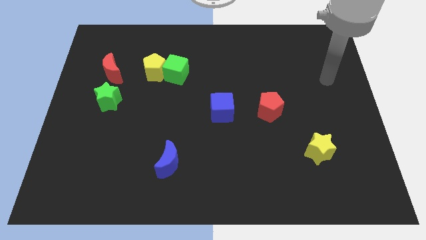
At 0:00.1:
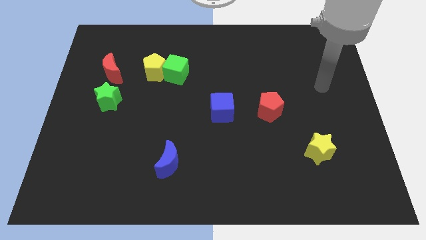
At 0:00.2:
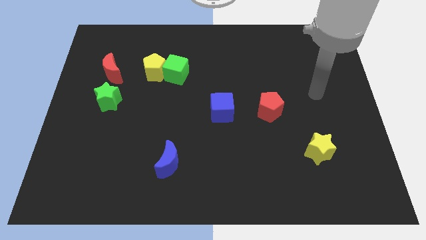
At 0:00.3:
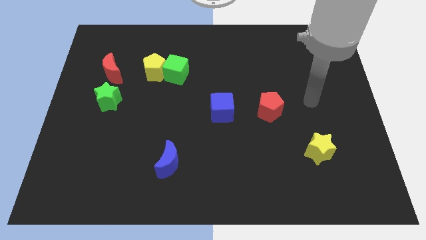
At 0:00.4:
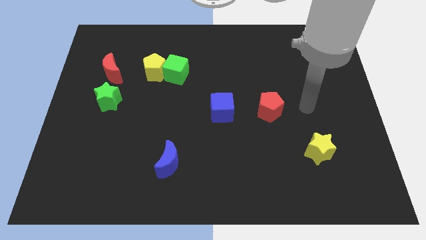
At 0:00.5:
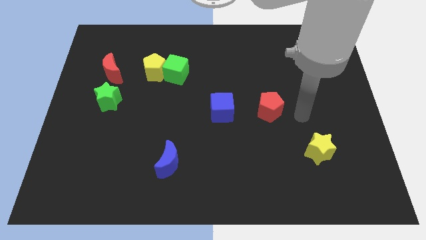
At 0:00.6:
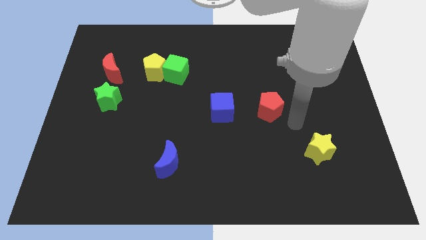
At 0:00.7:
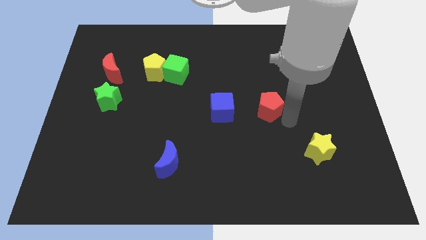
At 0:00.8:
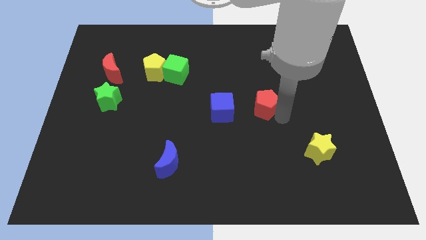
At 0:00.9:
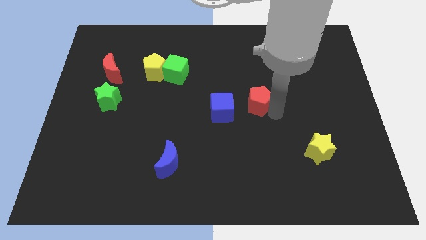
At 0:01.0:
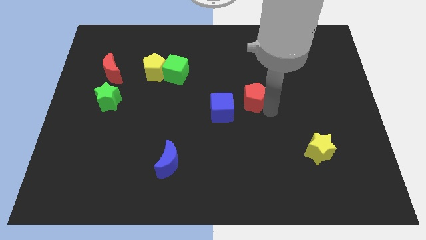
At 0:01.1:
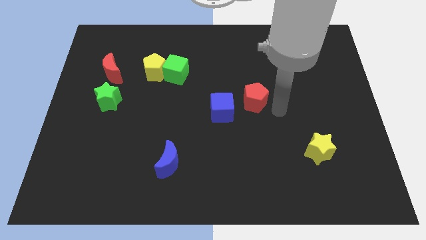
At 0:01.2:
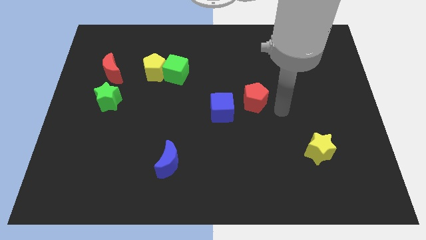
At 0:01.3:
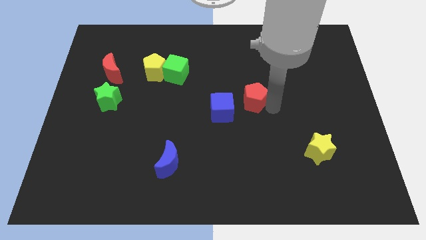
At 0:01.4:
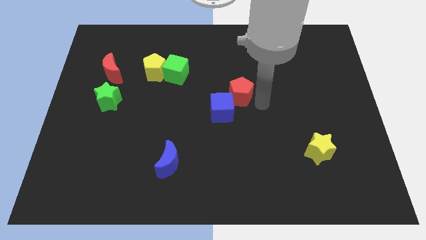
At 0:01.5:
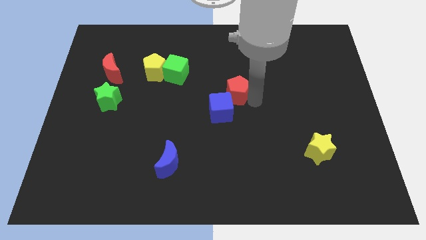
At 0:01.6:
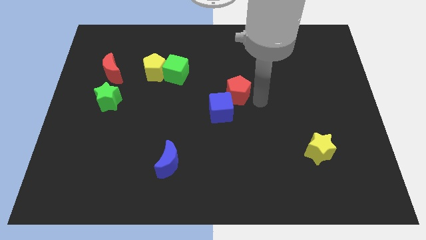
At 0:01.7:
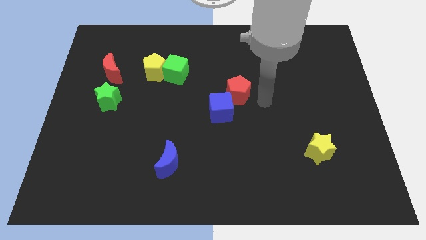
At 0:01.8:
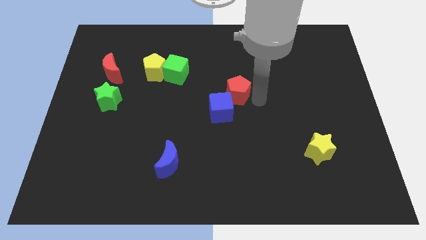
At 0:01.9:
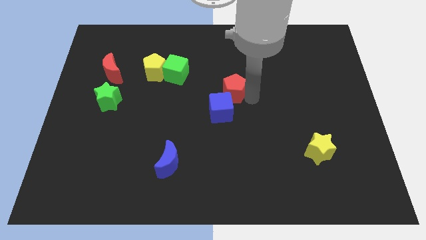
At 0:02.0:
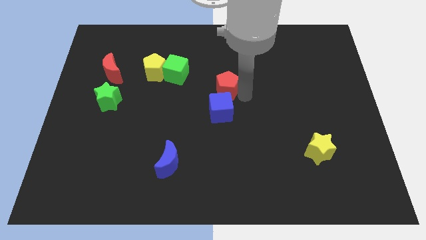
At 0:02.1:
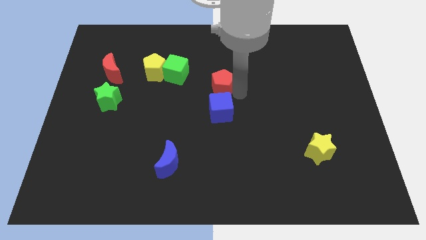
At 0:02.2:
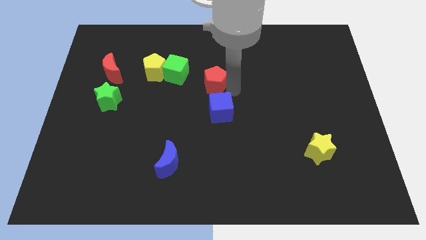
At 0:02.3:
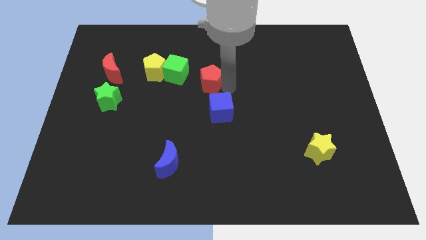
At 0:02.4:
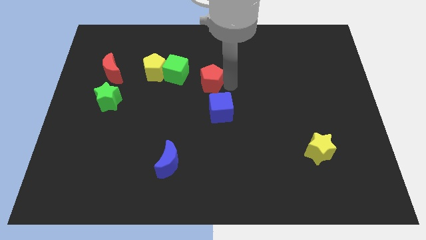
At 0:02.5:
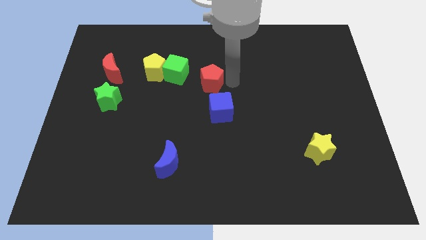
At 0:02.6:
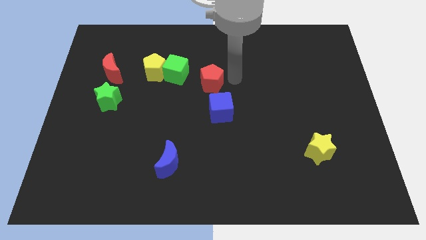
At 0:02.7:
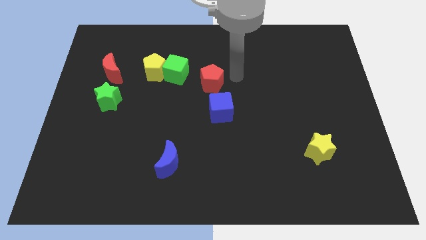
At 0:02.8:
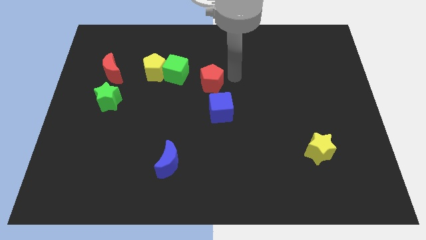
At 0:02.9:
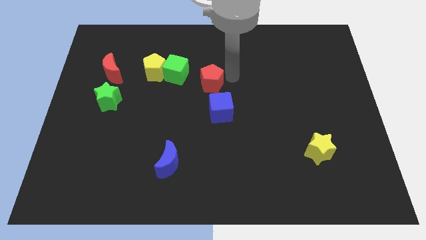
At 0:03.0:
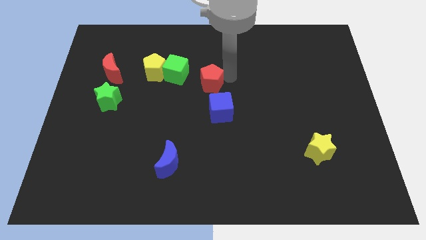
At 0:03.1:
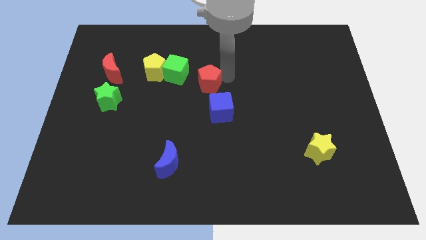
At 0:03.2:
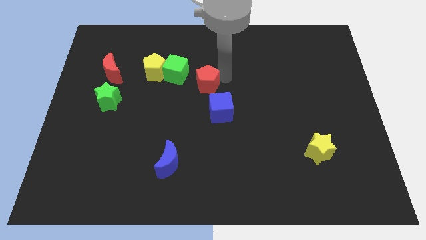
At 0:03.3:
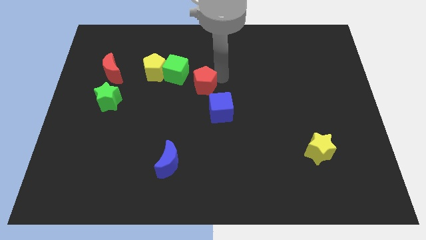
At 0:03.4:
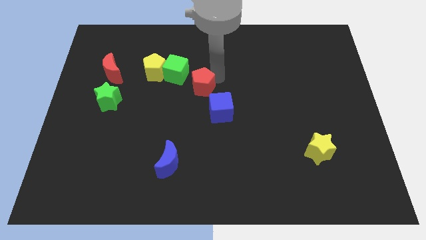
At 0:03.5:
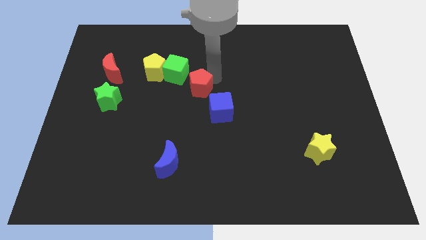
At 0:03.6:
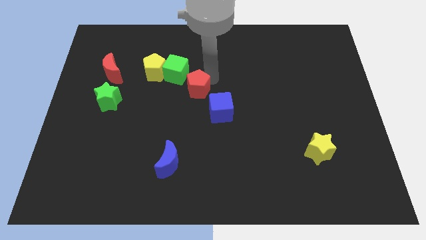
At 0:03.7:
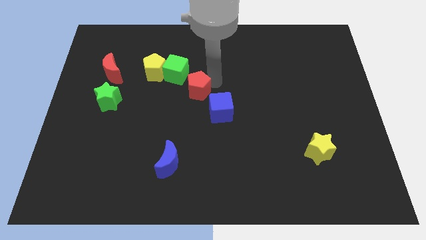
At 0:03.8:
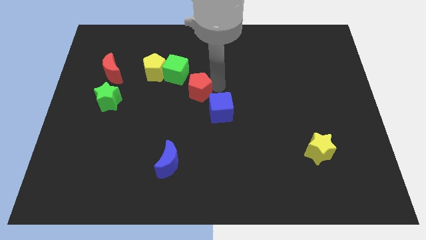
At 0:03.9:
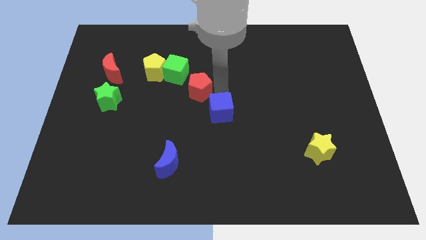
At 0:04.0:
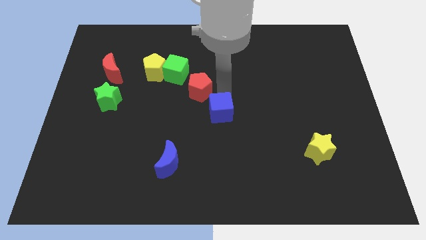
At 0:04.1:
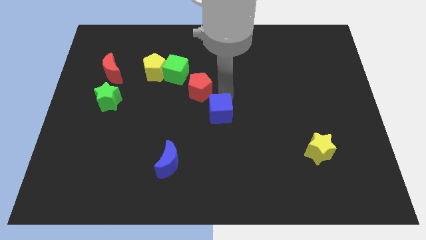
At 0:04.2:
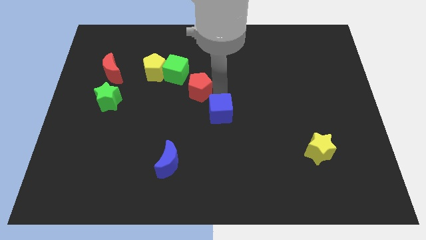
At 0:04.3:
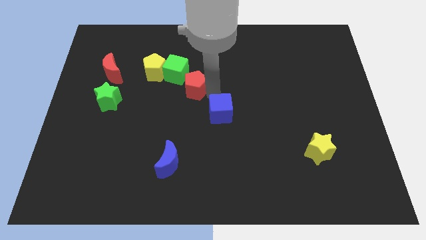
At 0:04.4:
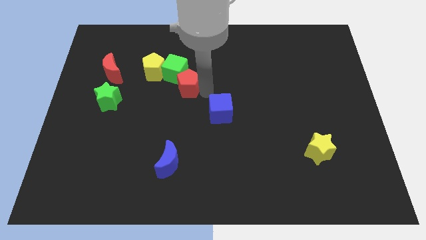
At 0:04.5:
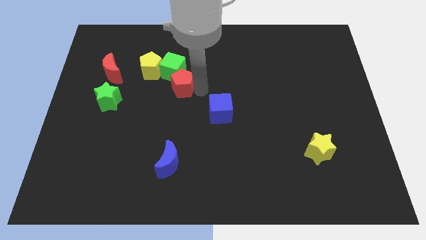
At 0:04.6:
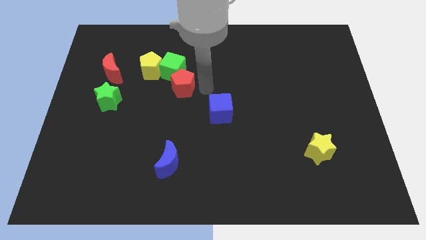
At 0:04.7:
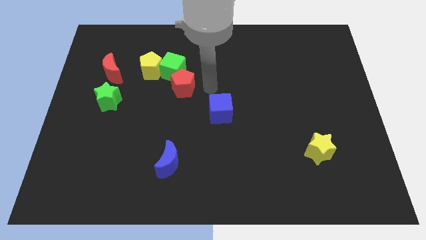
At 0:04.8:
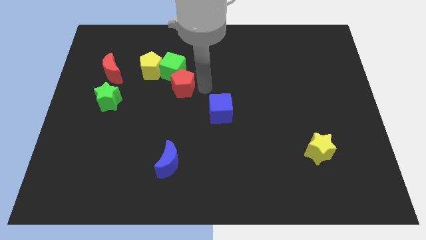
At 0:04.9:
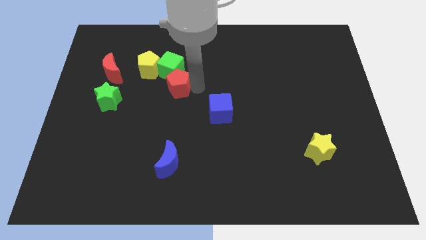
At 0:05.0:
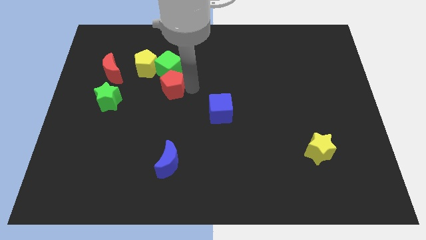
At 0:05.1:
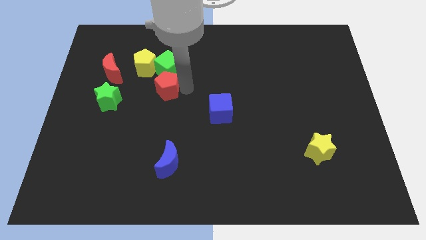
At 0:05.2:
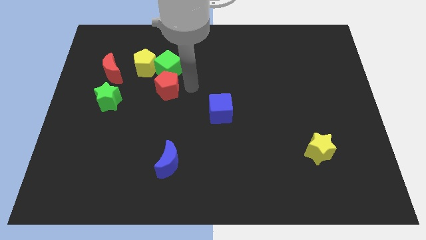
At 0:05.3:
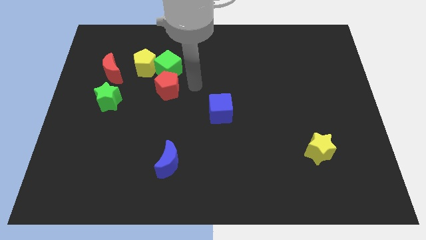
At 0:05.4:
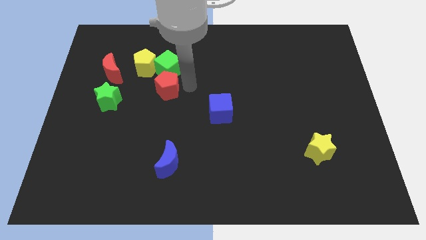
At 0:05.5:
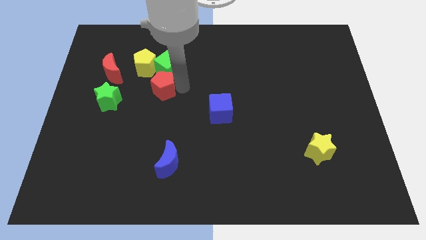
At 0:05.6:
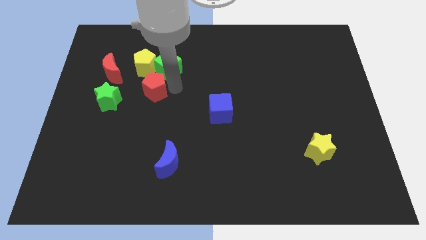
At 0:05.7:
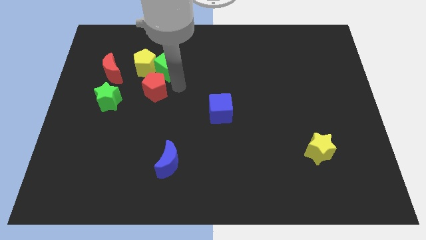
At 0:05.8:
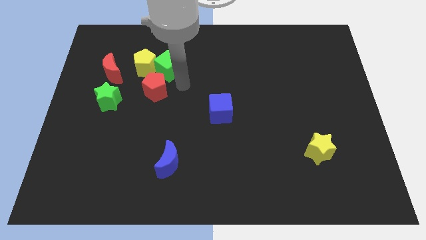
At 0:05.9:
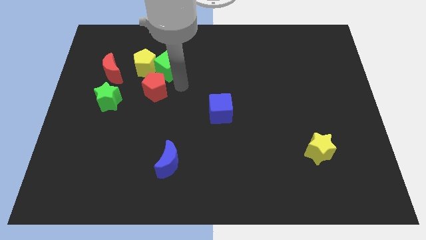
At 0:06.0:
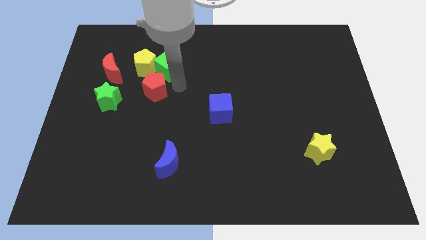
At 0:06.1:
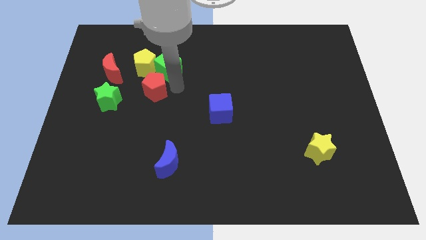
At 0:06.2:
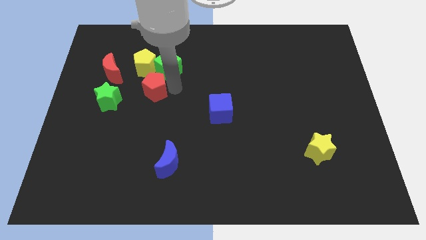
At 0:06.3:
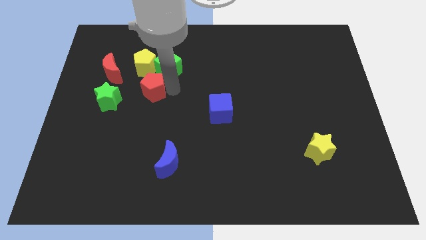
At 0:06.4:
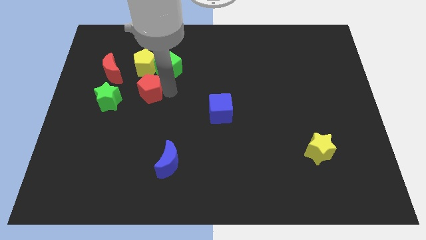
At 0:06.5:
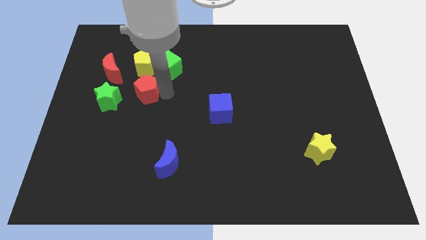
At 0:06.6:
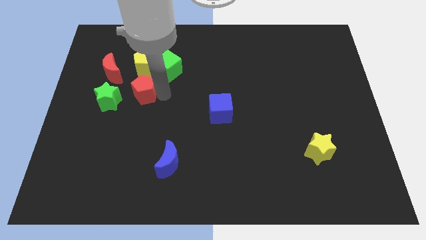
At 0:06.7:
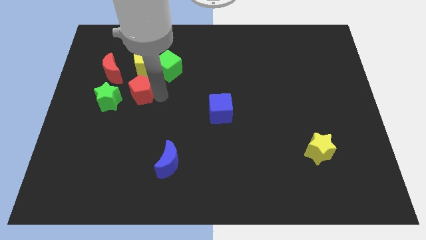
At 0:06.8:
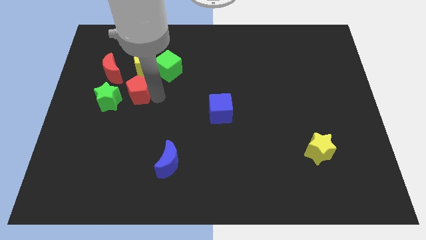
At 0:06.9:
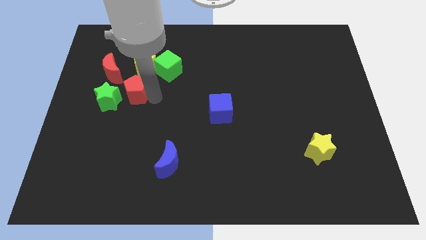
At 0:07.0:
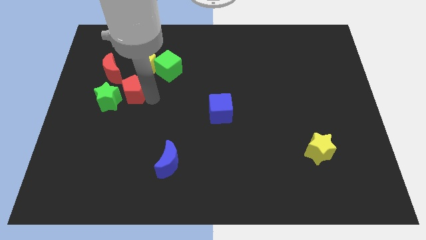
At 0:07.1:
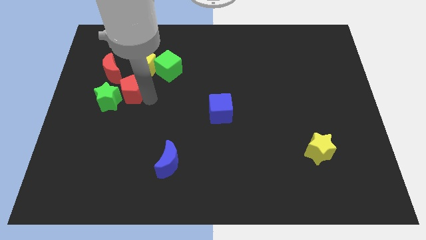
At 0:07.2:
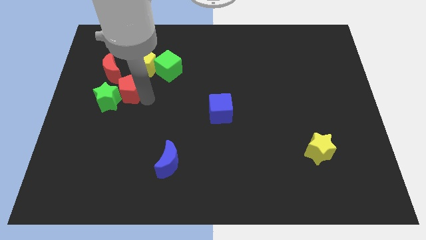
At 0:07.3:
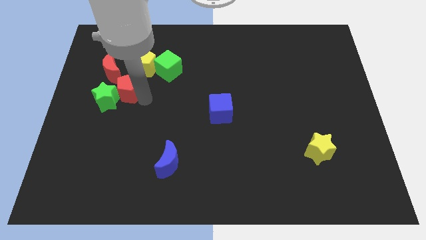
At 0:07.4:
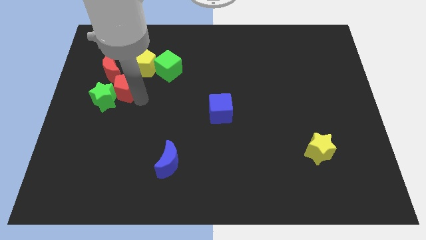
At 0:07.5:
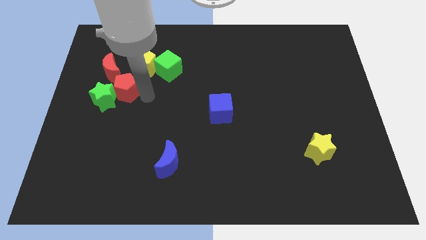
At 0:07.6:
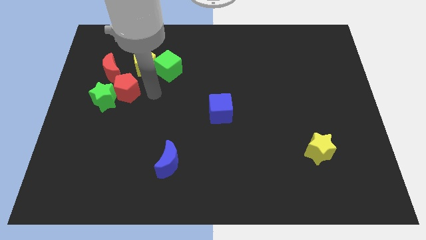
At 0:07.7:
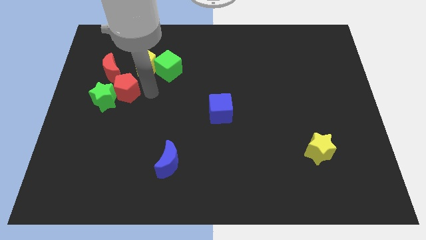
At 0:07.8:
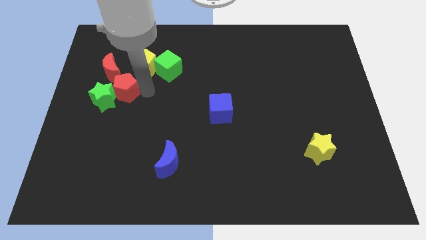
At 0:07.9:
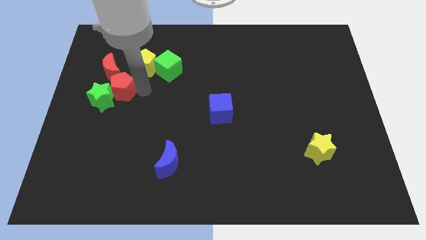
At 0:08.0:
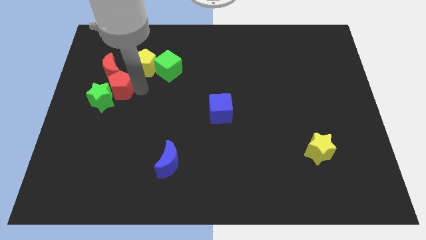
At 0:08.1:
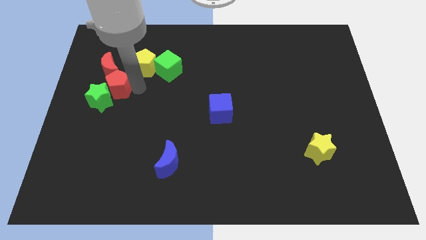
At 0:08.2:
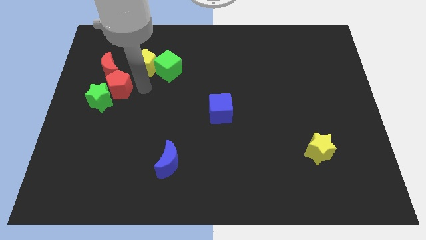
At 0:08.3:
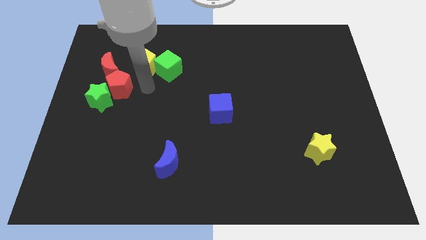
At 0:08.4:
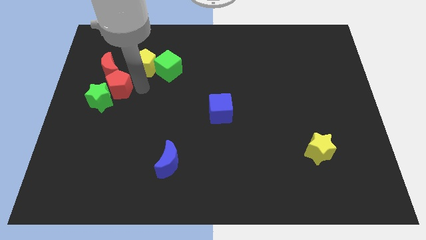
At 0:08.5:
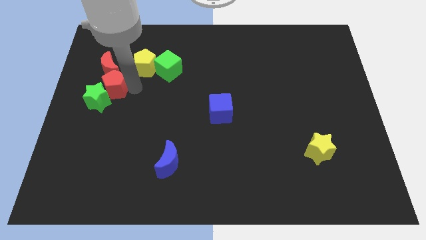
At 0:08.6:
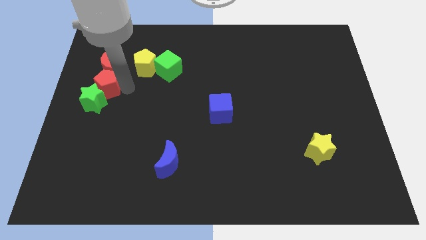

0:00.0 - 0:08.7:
move the red pentagon to the left side of the board
